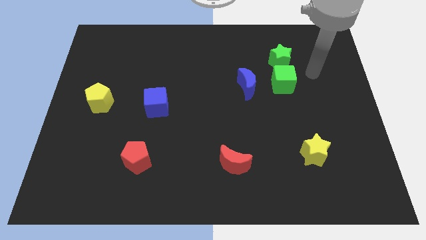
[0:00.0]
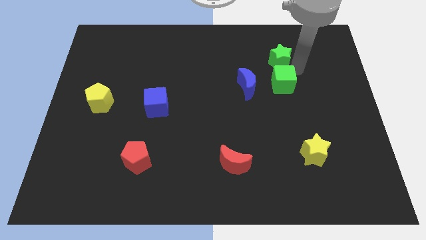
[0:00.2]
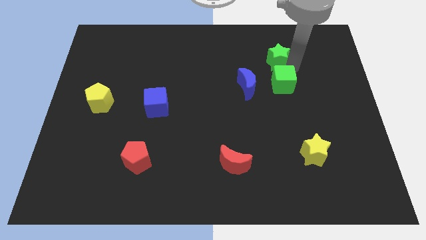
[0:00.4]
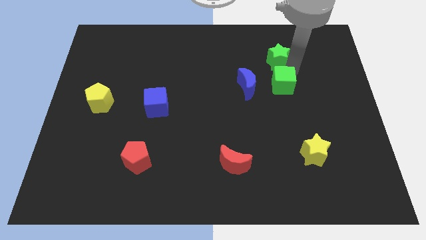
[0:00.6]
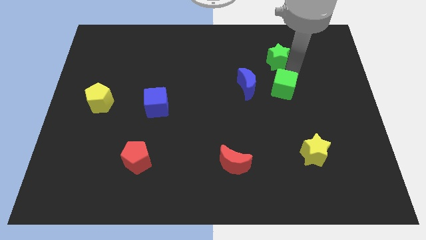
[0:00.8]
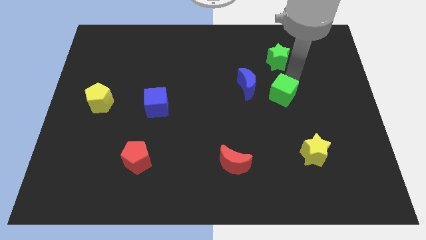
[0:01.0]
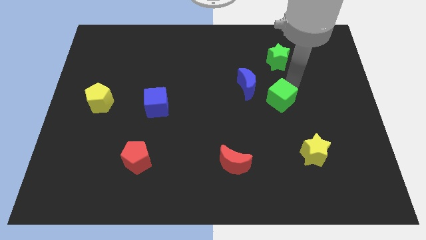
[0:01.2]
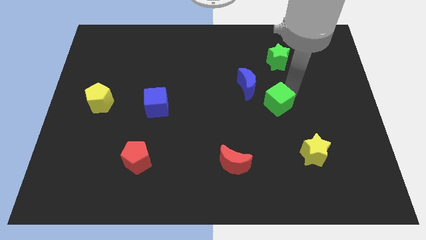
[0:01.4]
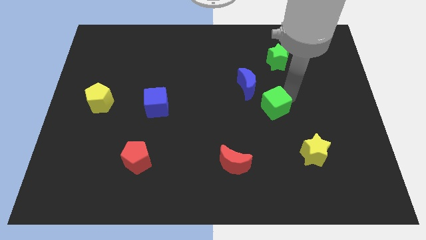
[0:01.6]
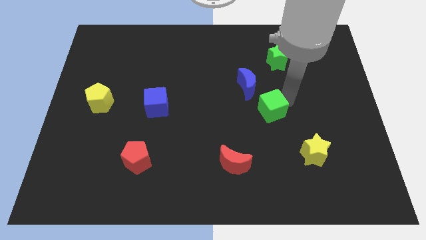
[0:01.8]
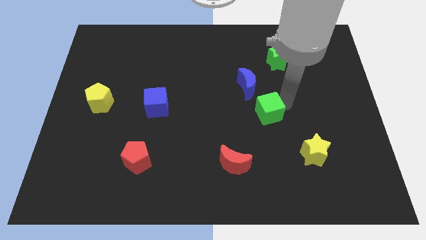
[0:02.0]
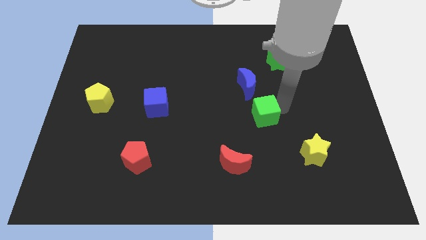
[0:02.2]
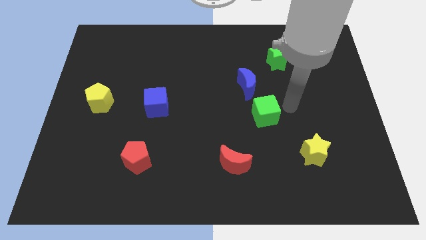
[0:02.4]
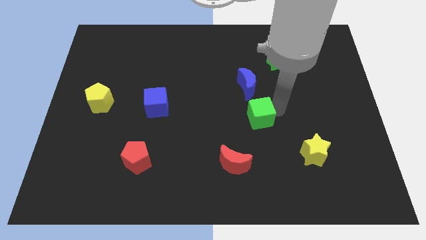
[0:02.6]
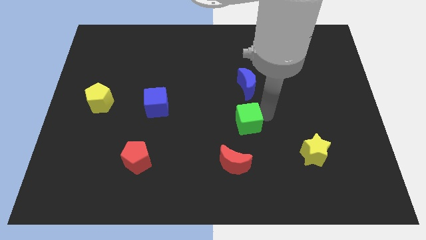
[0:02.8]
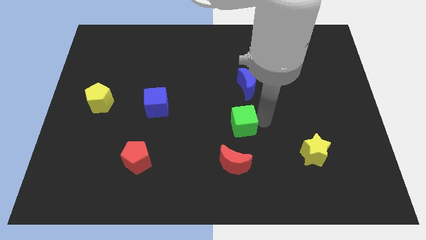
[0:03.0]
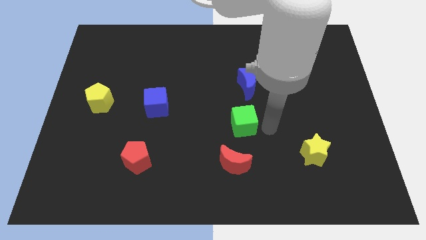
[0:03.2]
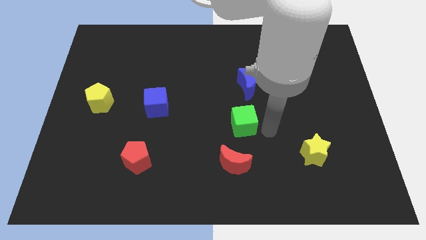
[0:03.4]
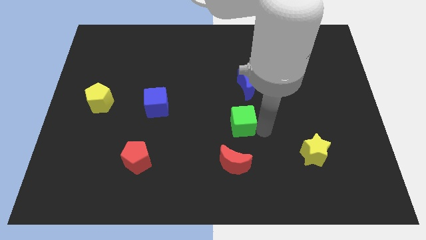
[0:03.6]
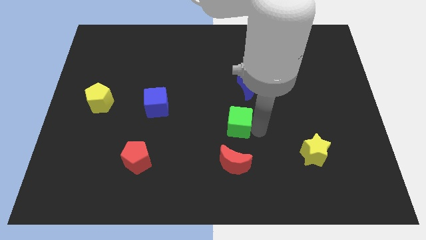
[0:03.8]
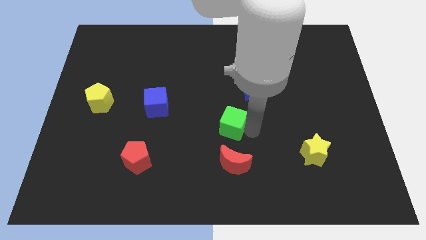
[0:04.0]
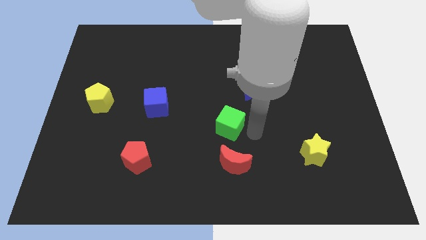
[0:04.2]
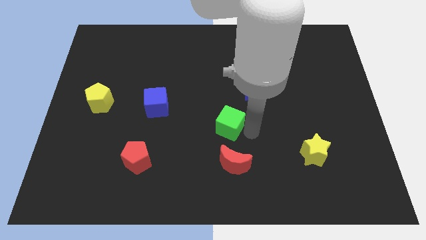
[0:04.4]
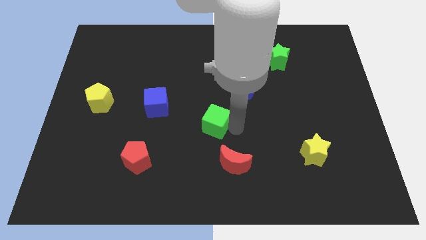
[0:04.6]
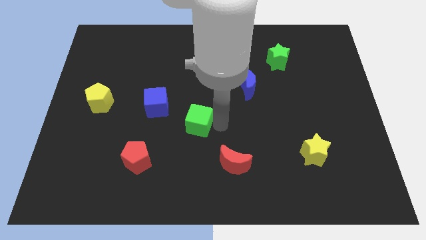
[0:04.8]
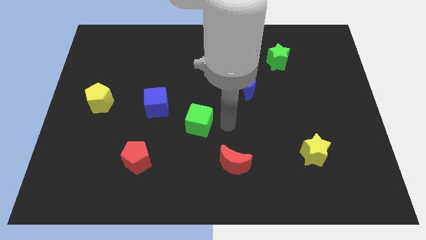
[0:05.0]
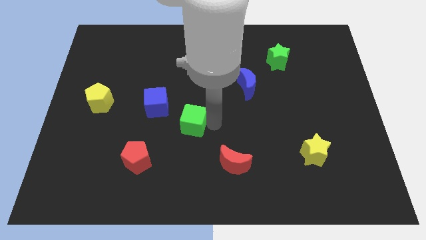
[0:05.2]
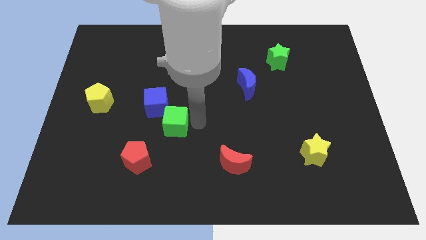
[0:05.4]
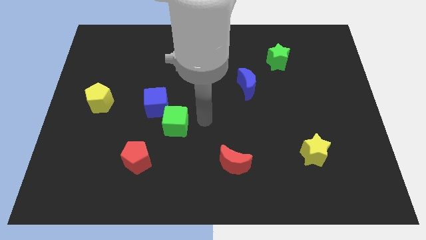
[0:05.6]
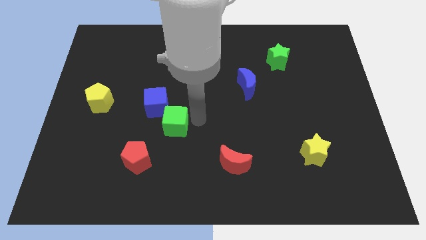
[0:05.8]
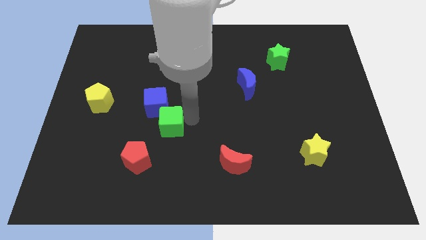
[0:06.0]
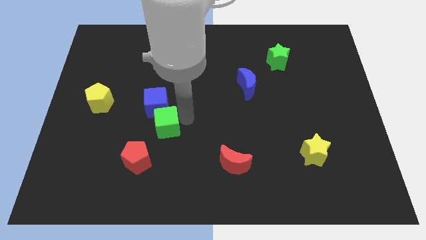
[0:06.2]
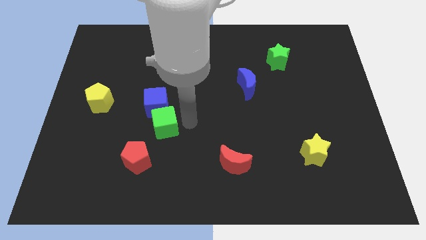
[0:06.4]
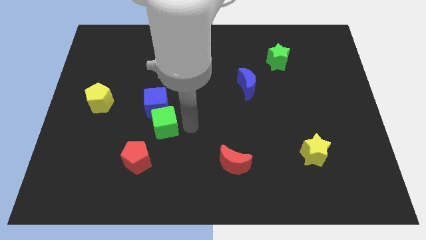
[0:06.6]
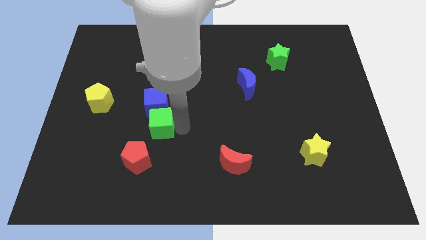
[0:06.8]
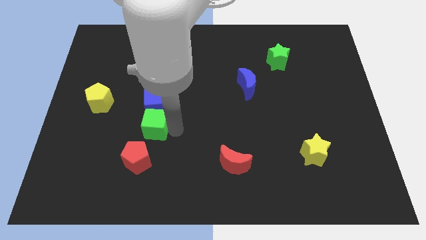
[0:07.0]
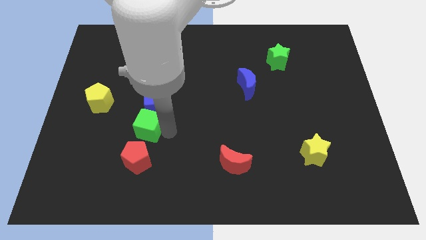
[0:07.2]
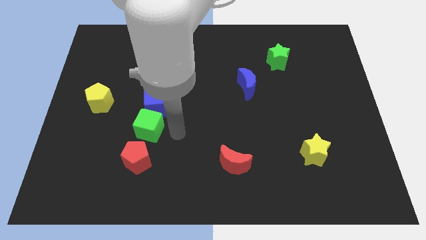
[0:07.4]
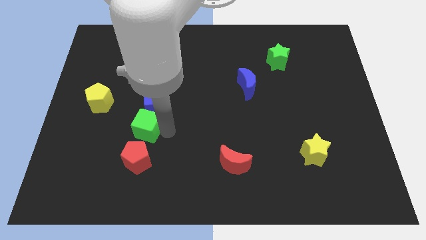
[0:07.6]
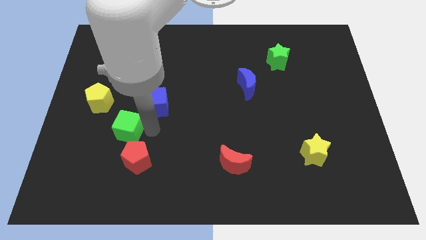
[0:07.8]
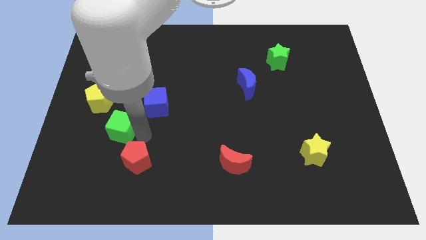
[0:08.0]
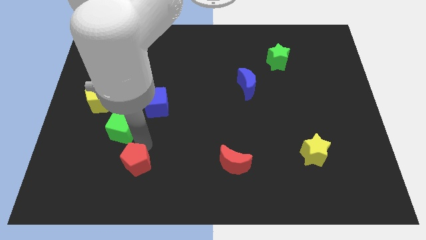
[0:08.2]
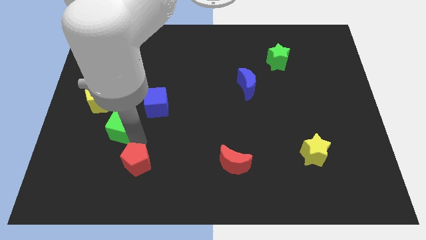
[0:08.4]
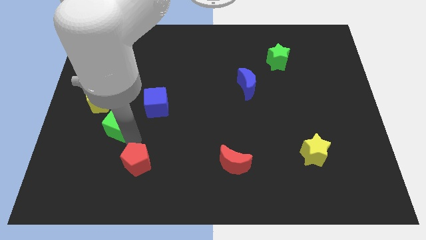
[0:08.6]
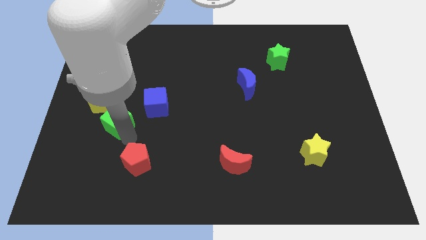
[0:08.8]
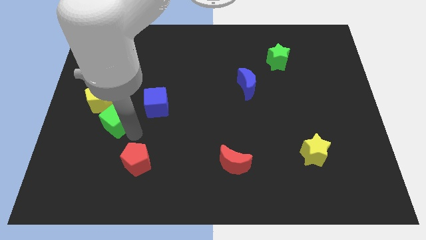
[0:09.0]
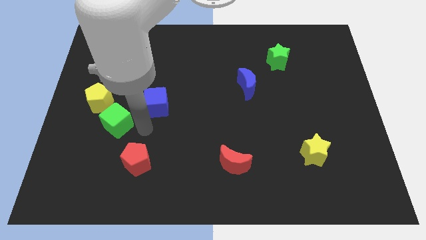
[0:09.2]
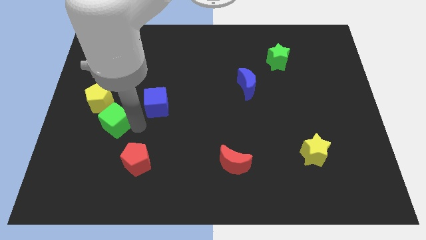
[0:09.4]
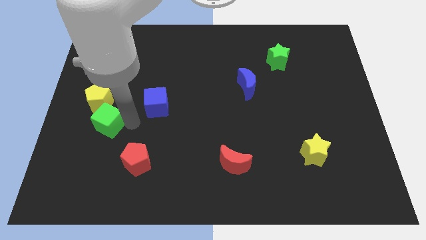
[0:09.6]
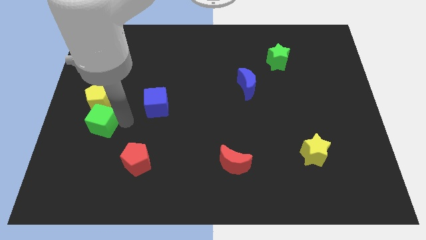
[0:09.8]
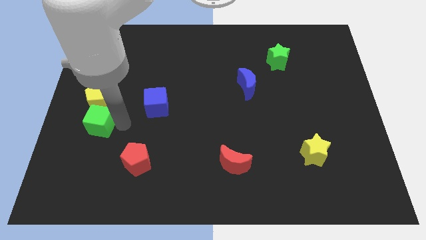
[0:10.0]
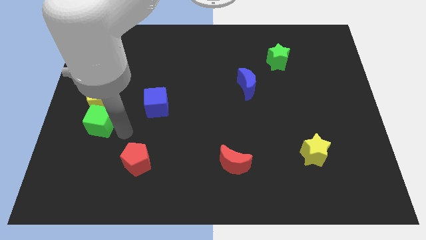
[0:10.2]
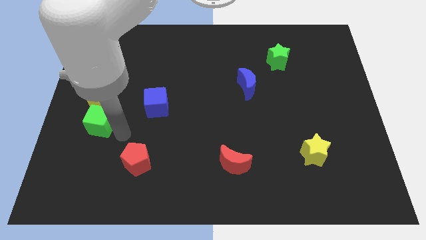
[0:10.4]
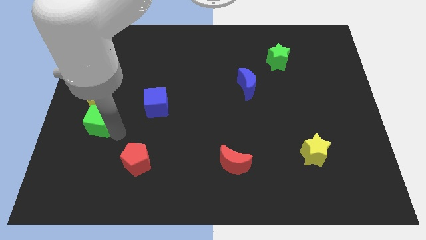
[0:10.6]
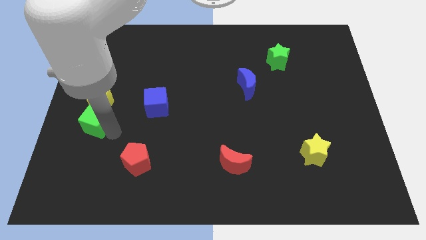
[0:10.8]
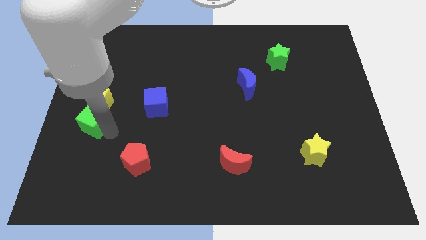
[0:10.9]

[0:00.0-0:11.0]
push the green cube to the center left

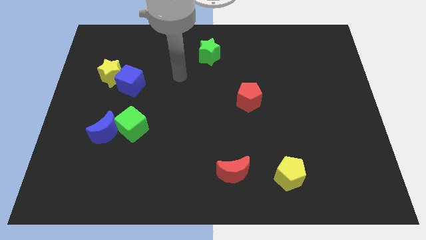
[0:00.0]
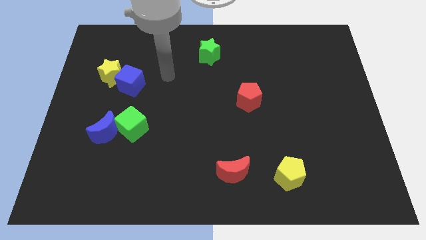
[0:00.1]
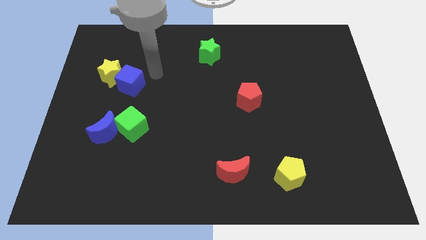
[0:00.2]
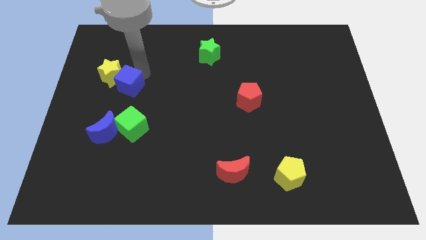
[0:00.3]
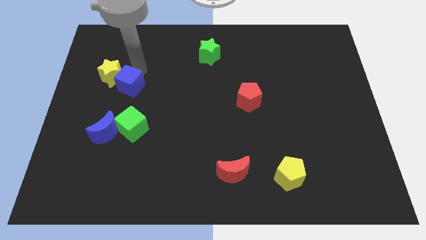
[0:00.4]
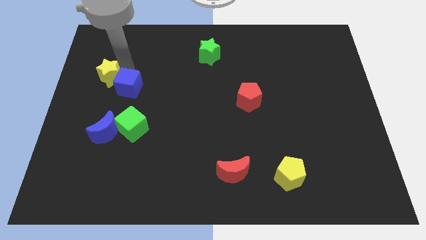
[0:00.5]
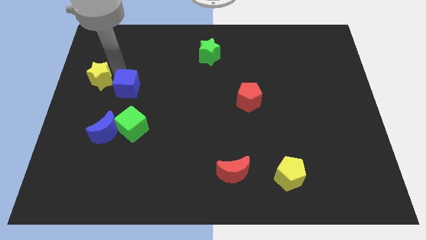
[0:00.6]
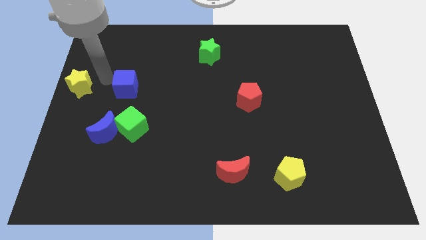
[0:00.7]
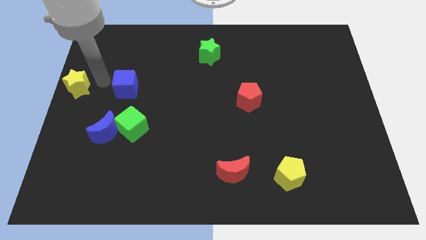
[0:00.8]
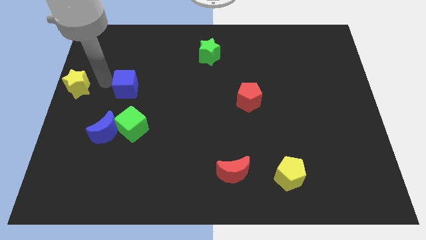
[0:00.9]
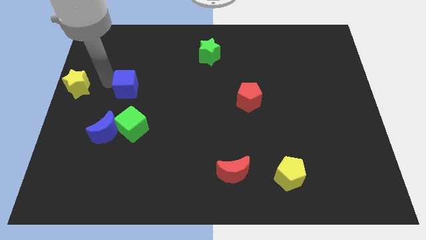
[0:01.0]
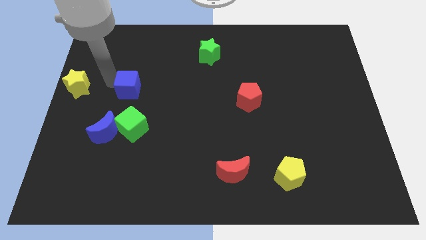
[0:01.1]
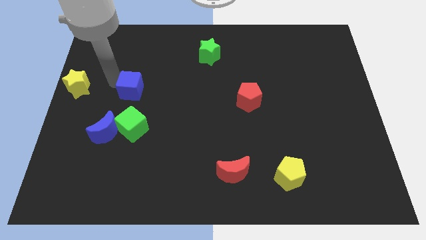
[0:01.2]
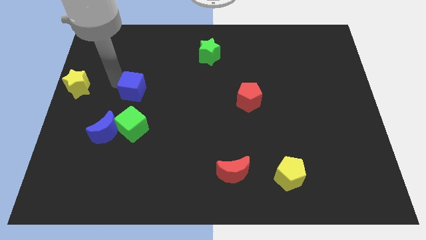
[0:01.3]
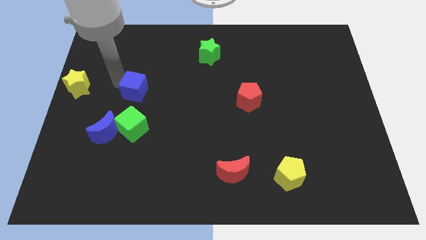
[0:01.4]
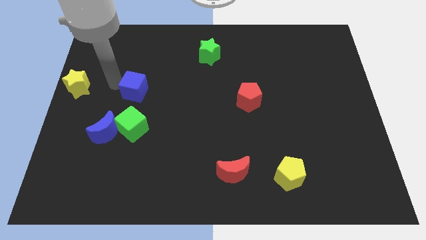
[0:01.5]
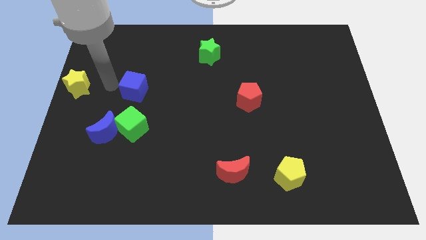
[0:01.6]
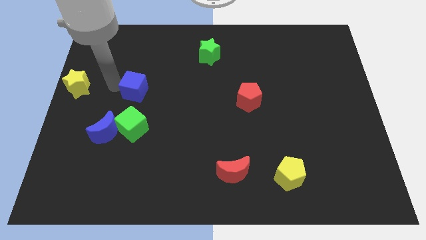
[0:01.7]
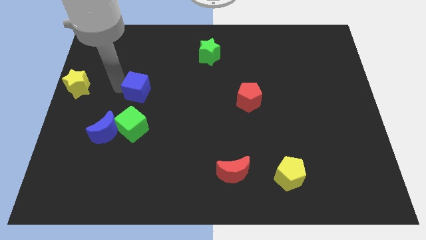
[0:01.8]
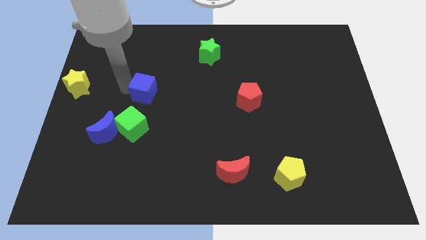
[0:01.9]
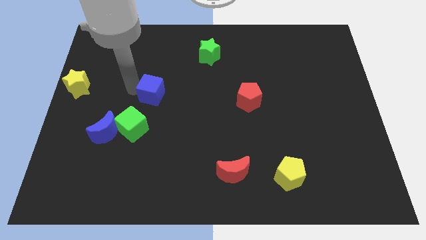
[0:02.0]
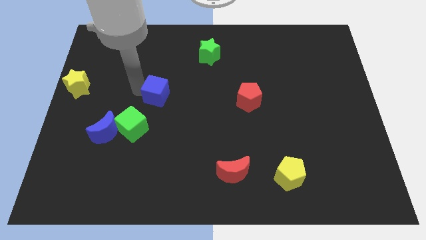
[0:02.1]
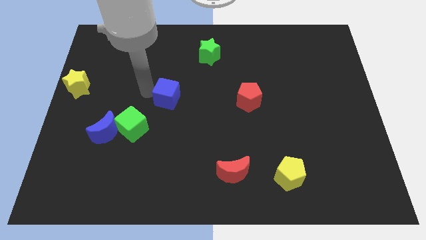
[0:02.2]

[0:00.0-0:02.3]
slide the blue cube to the center
